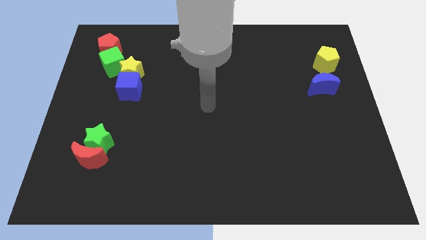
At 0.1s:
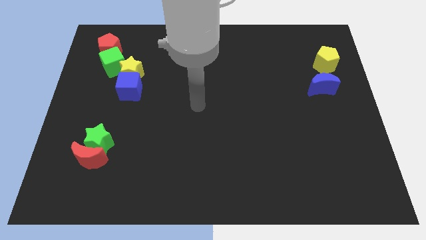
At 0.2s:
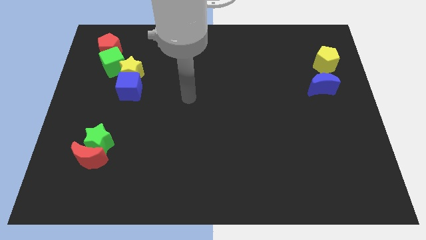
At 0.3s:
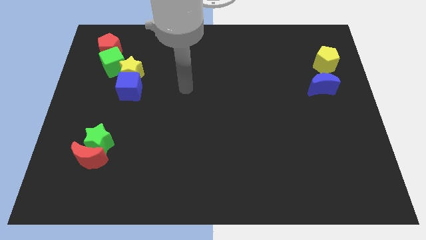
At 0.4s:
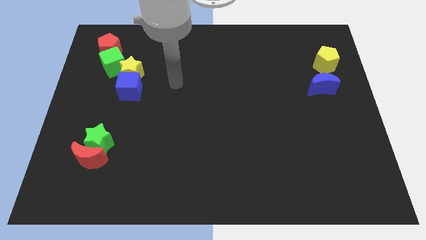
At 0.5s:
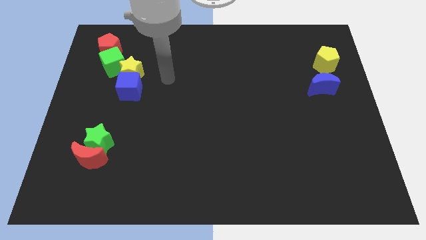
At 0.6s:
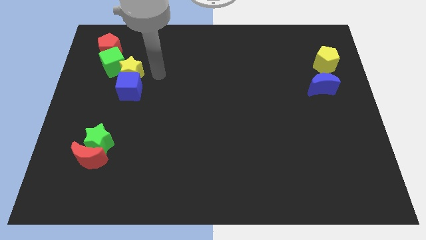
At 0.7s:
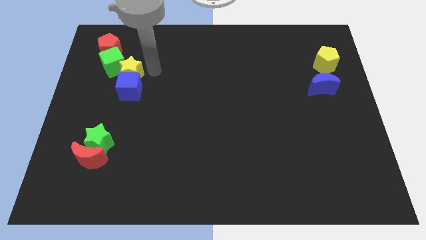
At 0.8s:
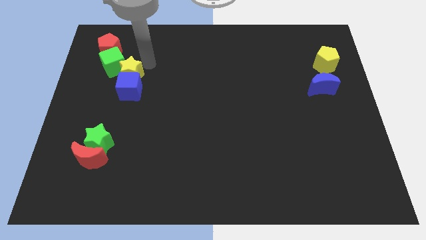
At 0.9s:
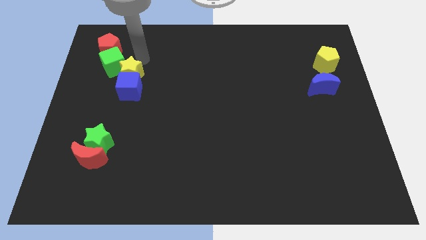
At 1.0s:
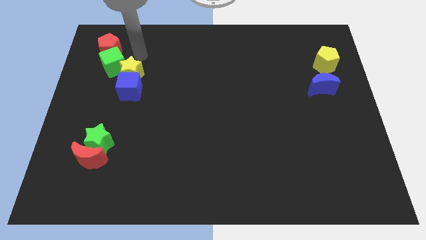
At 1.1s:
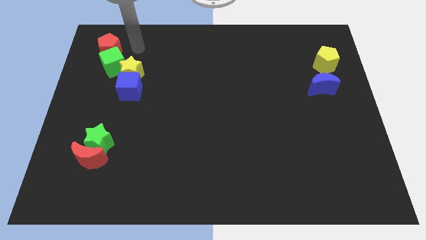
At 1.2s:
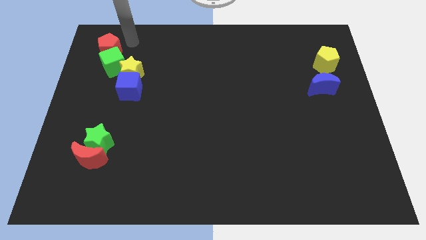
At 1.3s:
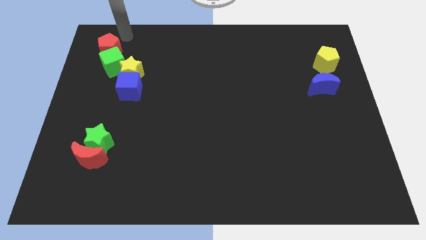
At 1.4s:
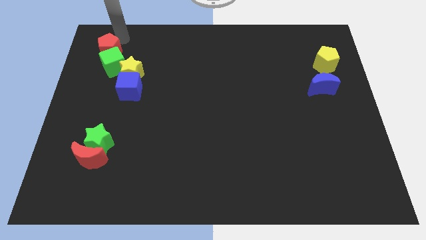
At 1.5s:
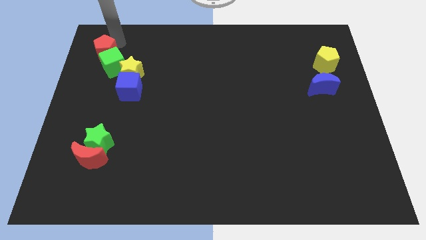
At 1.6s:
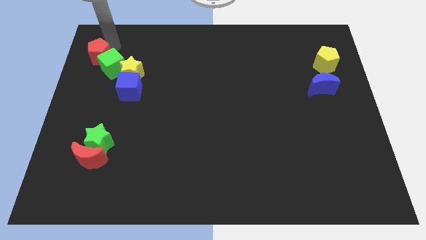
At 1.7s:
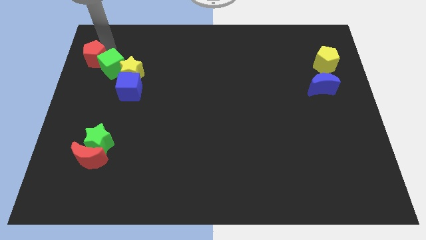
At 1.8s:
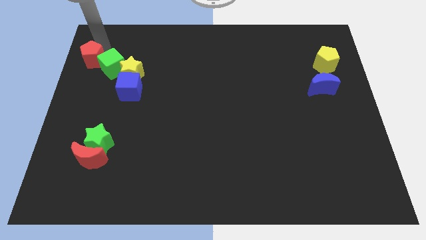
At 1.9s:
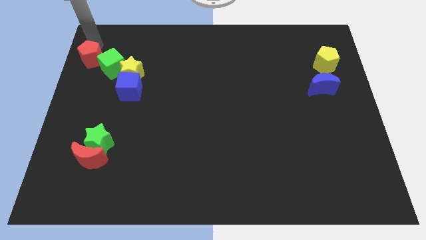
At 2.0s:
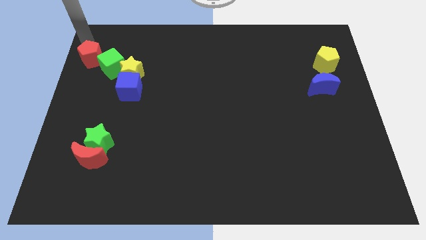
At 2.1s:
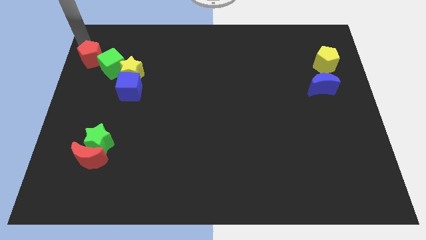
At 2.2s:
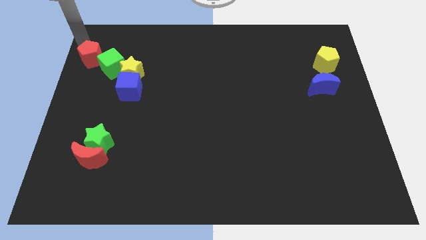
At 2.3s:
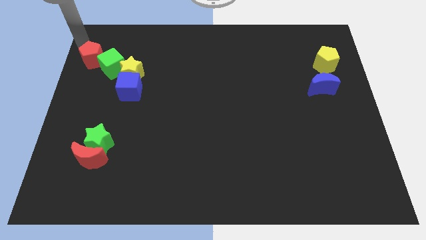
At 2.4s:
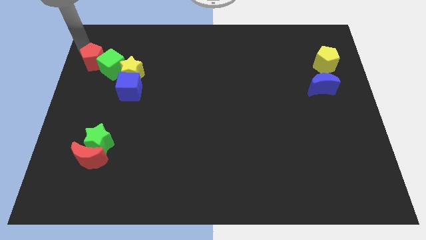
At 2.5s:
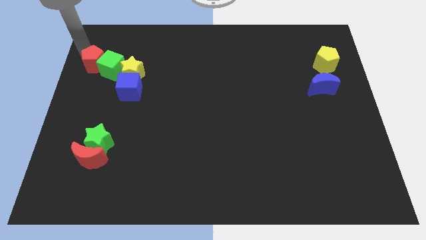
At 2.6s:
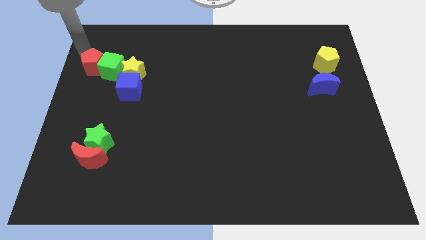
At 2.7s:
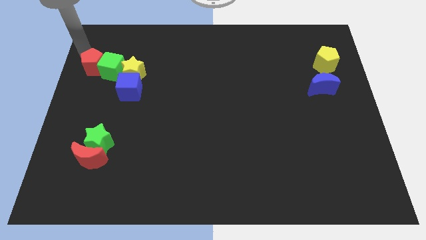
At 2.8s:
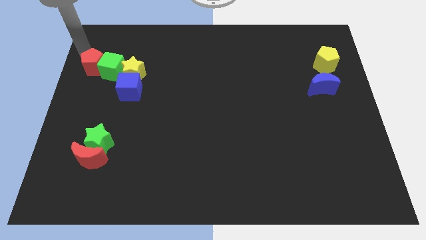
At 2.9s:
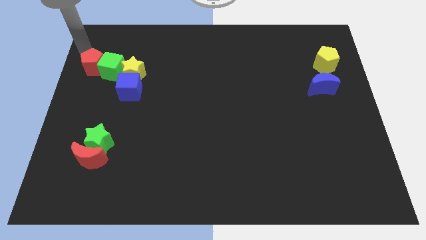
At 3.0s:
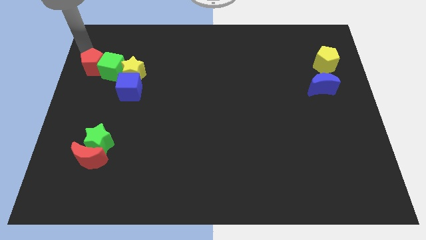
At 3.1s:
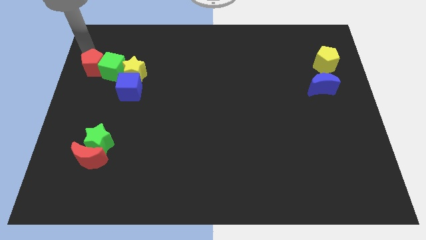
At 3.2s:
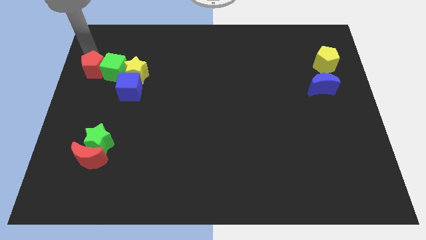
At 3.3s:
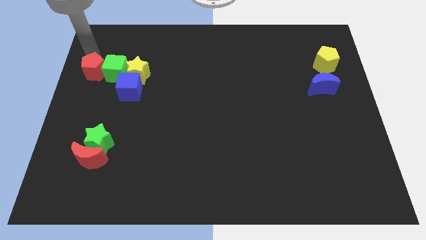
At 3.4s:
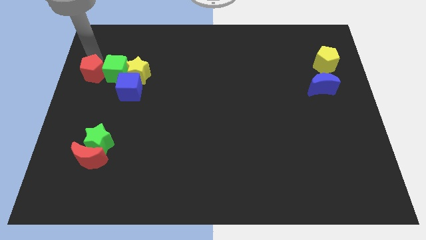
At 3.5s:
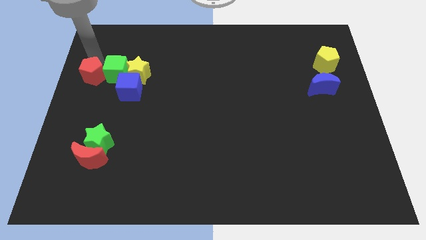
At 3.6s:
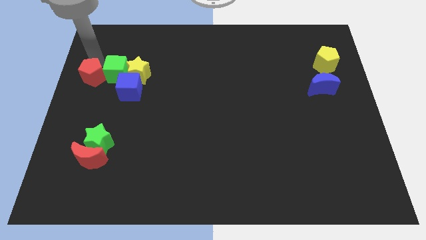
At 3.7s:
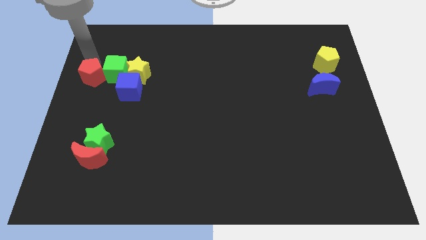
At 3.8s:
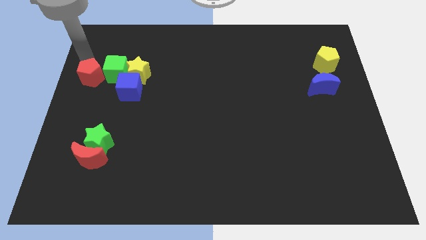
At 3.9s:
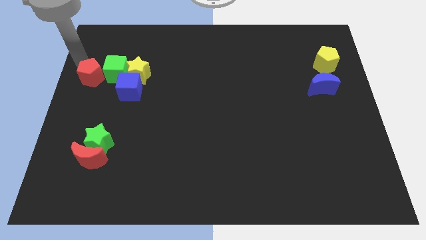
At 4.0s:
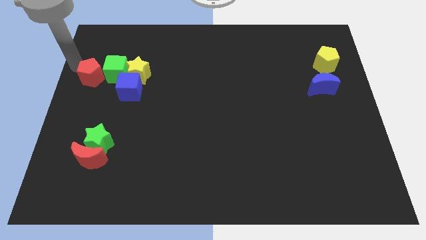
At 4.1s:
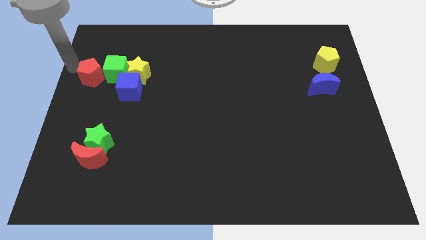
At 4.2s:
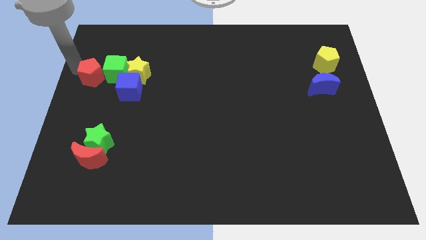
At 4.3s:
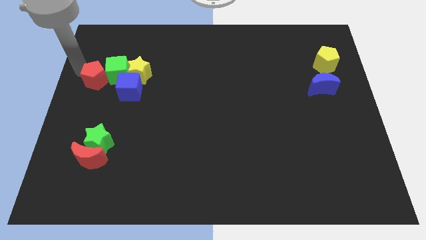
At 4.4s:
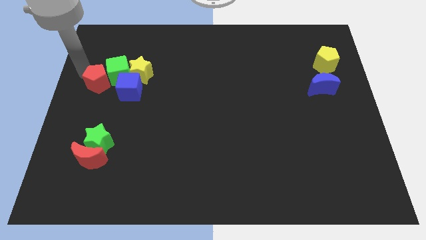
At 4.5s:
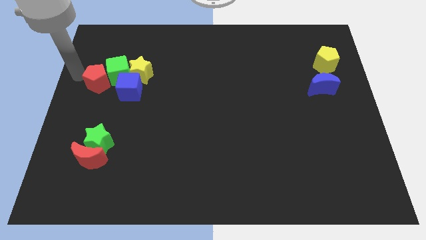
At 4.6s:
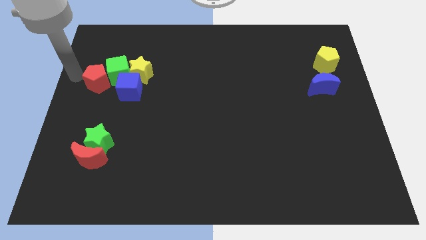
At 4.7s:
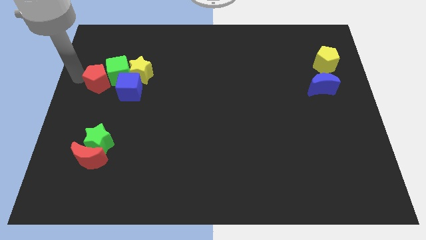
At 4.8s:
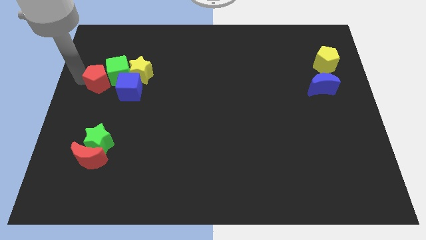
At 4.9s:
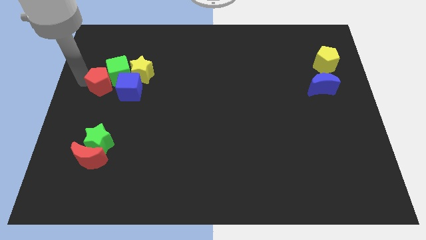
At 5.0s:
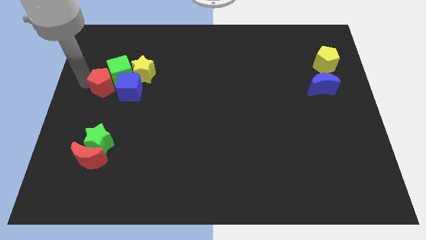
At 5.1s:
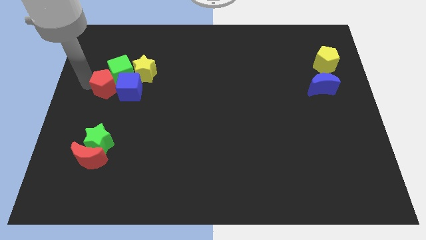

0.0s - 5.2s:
slide the red pentagon towards the blue cube

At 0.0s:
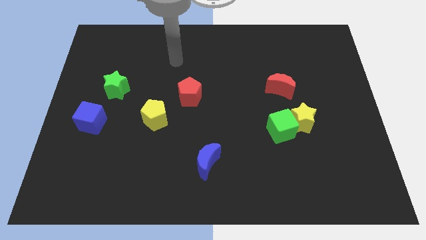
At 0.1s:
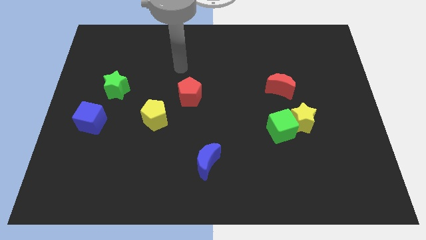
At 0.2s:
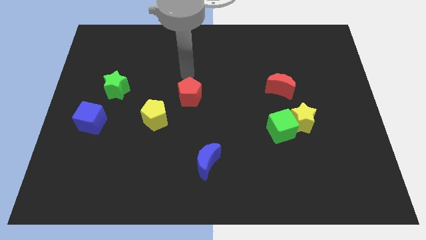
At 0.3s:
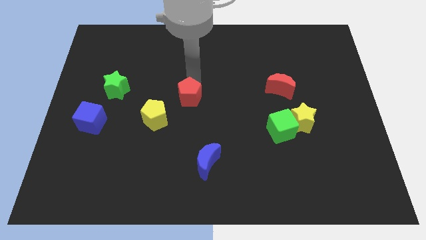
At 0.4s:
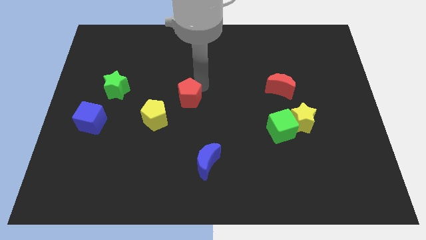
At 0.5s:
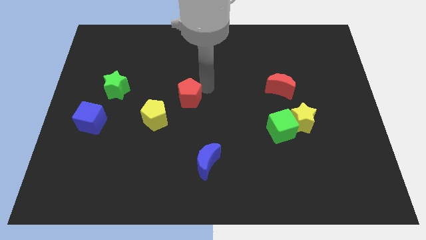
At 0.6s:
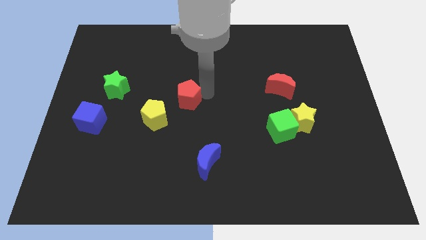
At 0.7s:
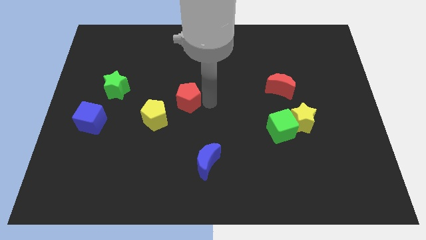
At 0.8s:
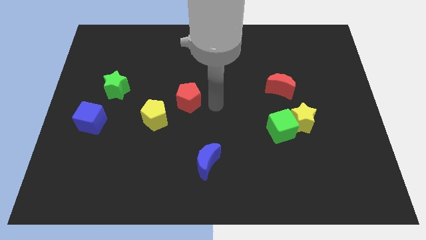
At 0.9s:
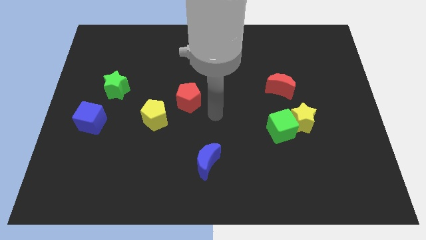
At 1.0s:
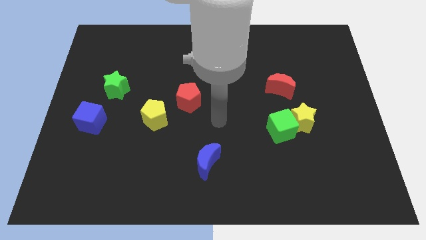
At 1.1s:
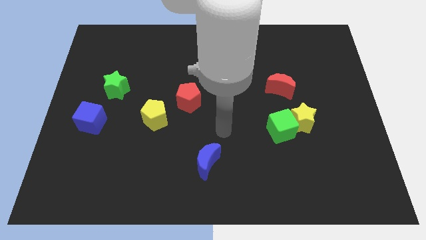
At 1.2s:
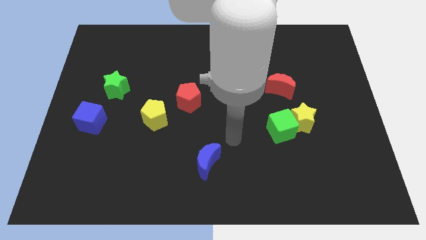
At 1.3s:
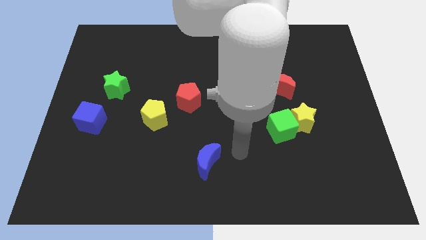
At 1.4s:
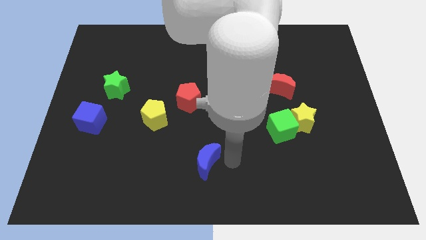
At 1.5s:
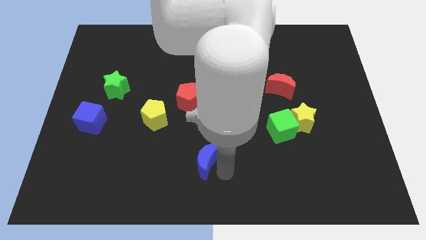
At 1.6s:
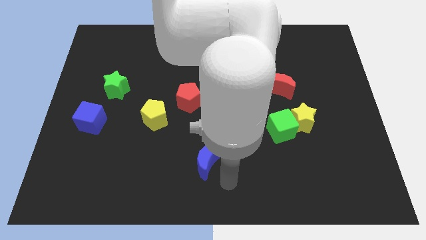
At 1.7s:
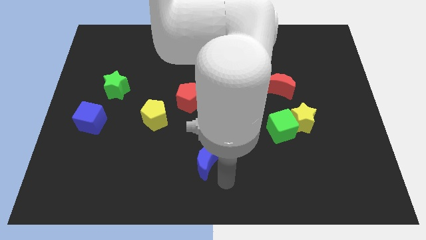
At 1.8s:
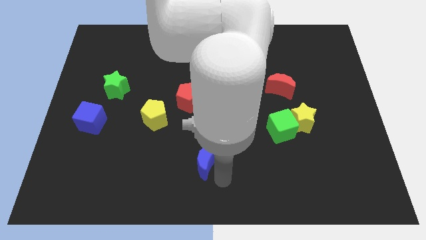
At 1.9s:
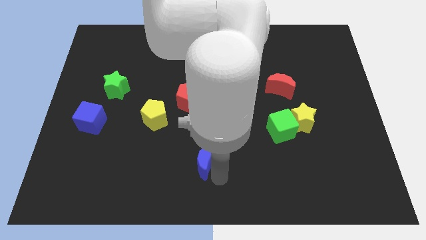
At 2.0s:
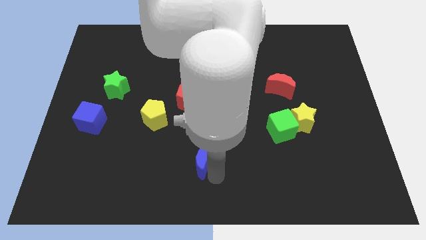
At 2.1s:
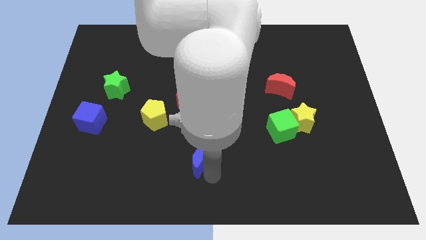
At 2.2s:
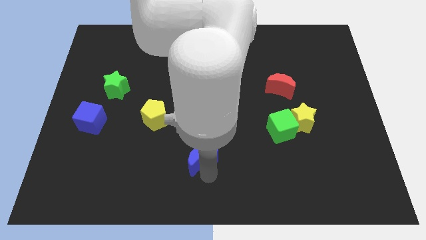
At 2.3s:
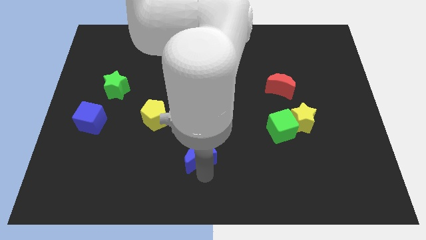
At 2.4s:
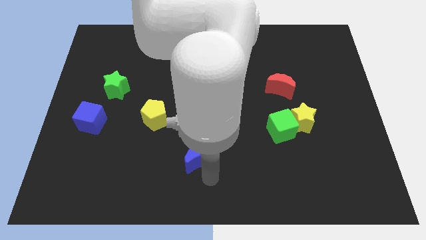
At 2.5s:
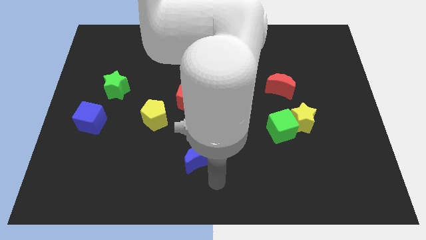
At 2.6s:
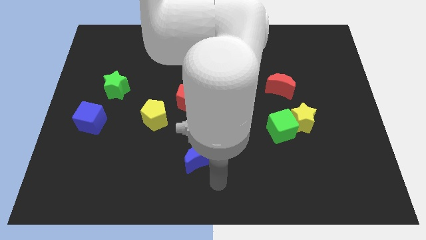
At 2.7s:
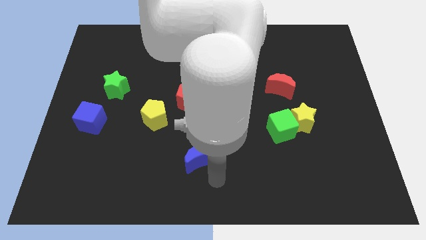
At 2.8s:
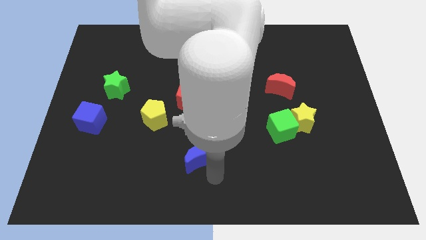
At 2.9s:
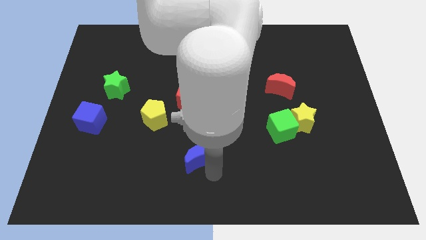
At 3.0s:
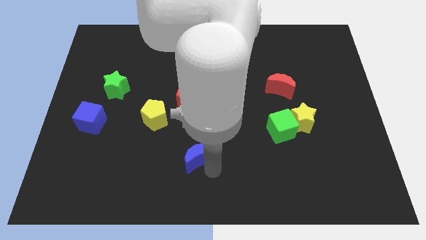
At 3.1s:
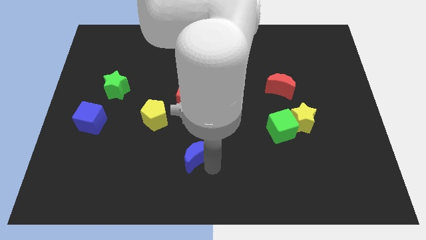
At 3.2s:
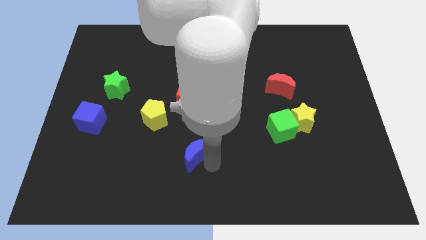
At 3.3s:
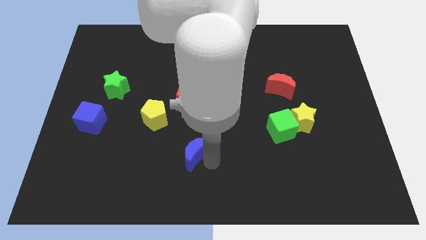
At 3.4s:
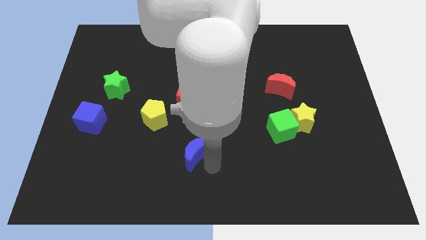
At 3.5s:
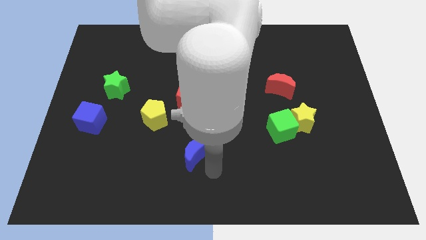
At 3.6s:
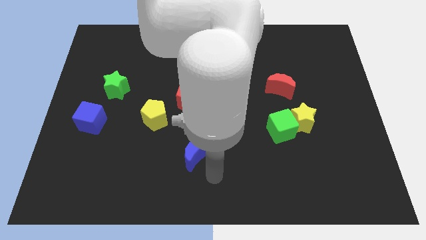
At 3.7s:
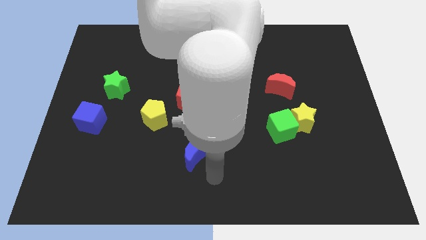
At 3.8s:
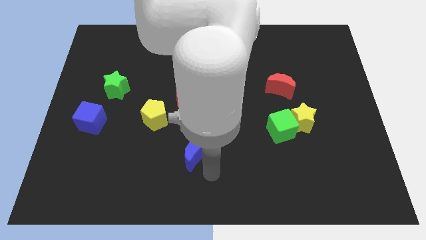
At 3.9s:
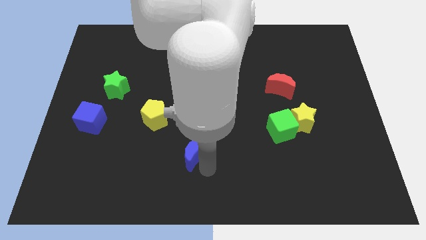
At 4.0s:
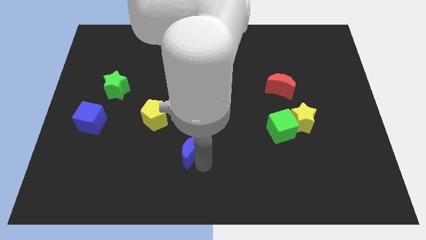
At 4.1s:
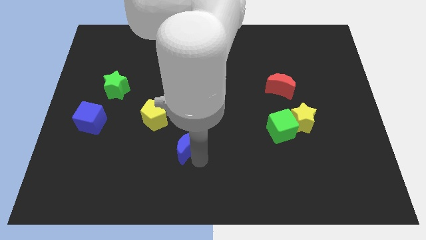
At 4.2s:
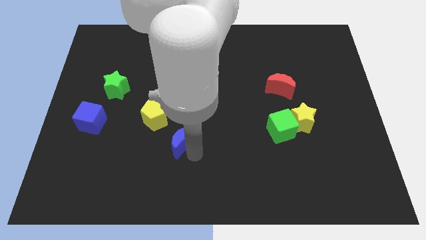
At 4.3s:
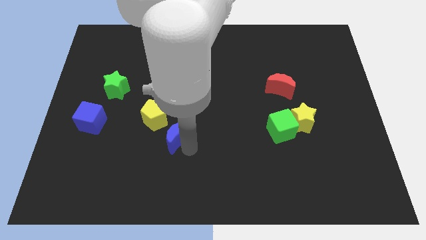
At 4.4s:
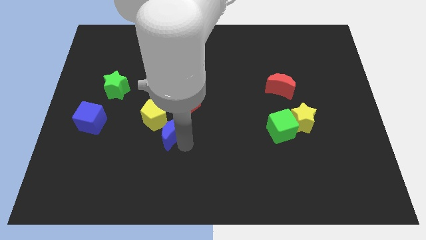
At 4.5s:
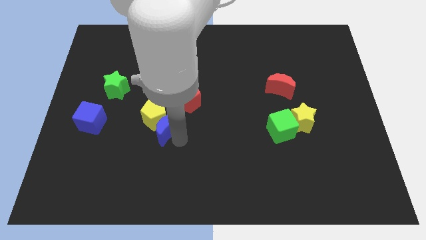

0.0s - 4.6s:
move the blue moon towards the yellow pentagon
